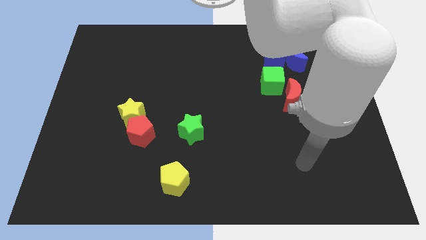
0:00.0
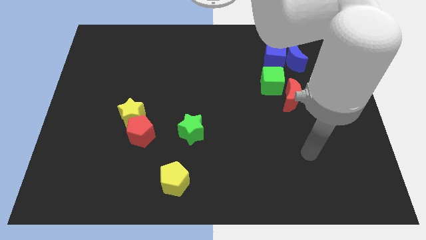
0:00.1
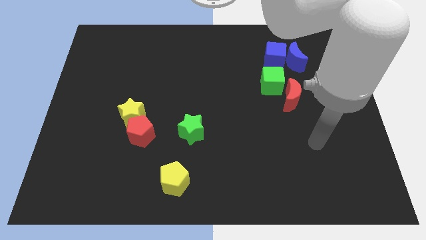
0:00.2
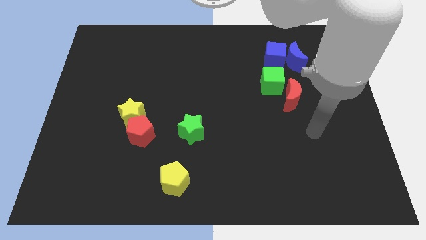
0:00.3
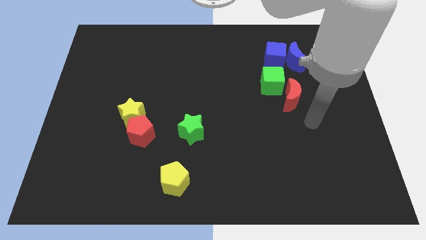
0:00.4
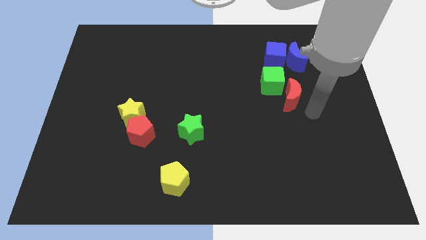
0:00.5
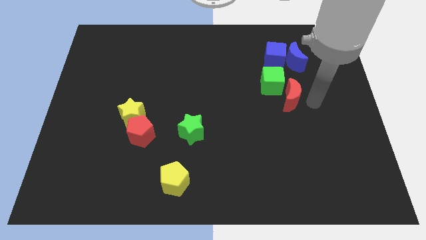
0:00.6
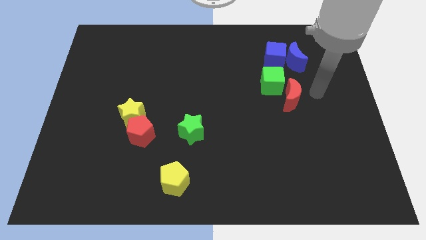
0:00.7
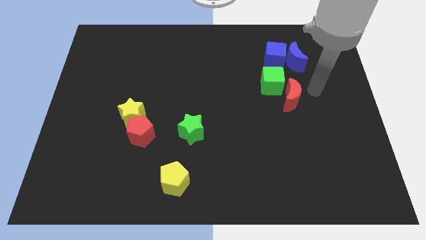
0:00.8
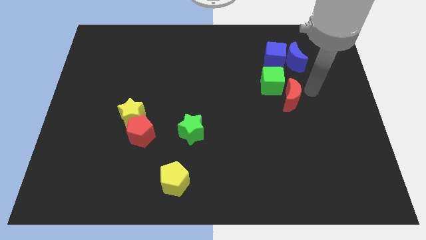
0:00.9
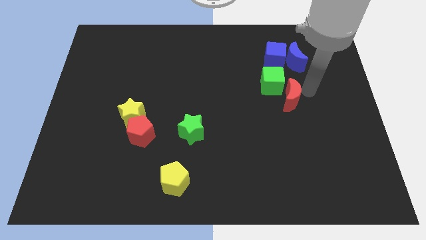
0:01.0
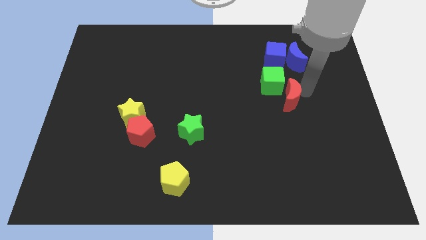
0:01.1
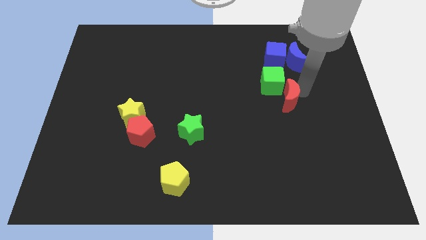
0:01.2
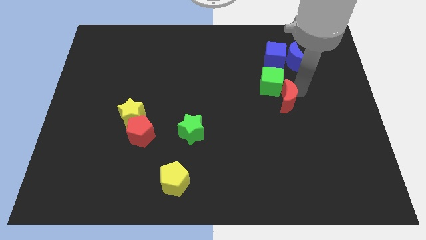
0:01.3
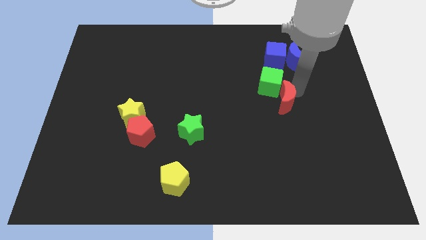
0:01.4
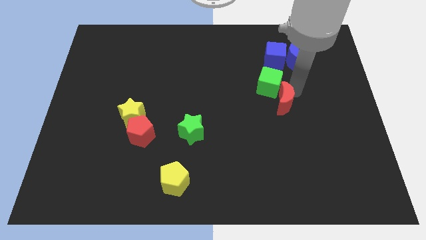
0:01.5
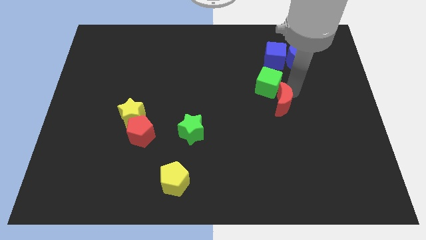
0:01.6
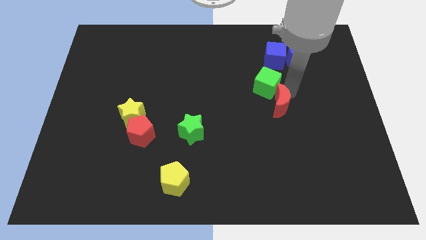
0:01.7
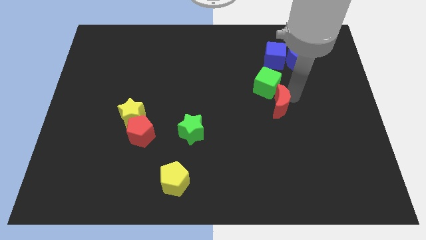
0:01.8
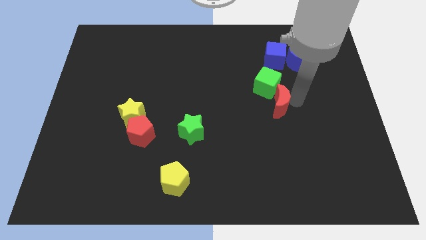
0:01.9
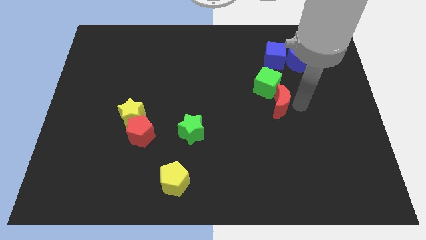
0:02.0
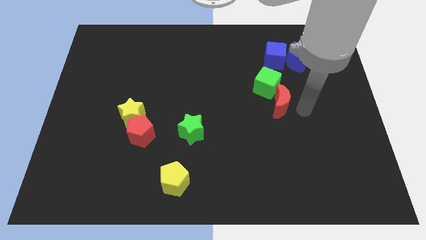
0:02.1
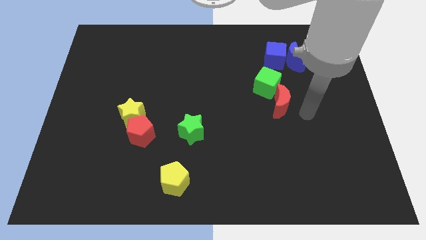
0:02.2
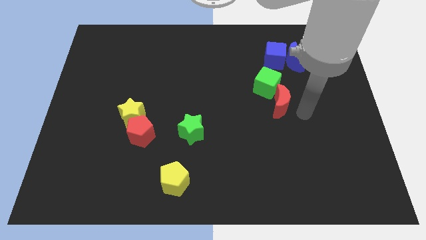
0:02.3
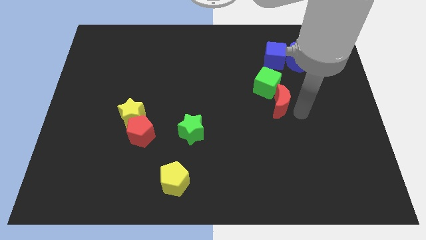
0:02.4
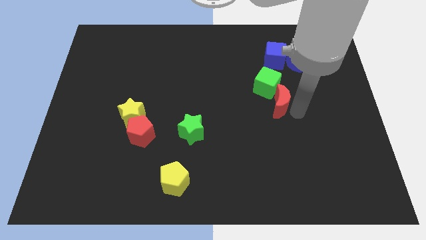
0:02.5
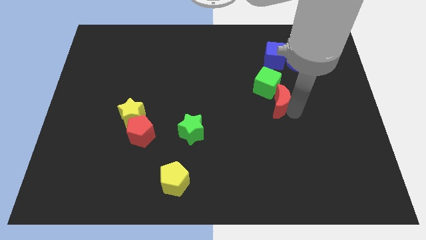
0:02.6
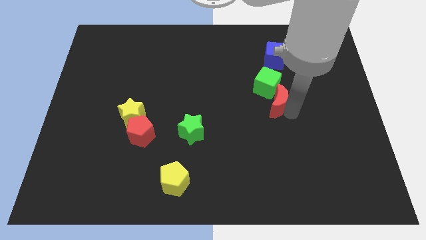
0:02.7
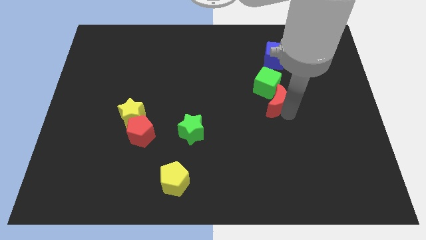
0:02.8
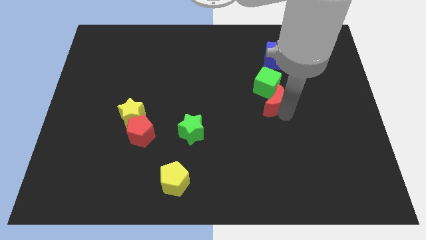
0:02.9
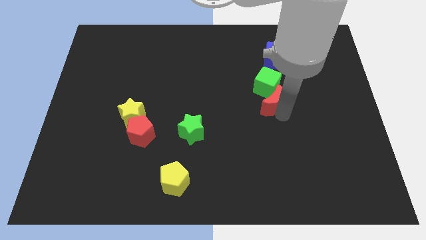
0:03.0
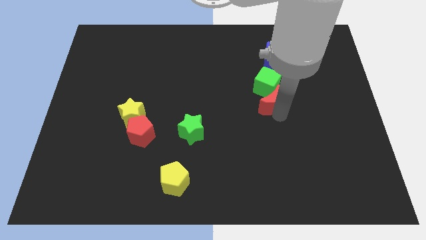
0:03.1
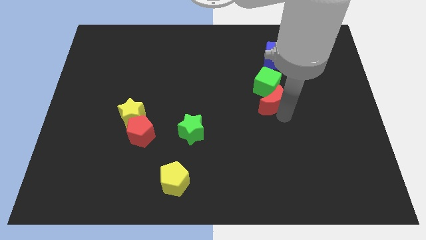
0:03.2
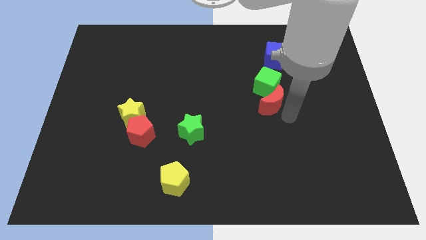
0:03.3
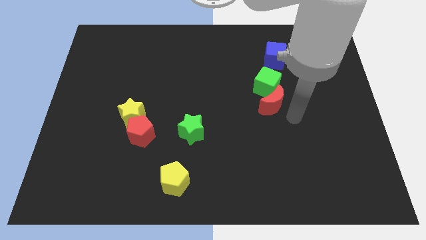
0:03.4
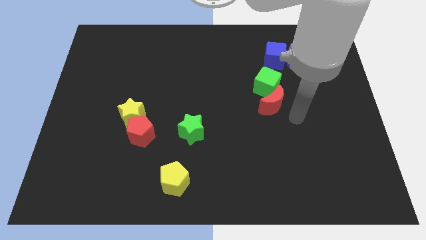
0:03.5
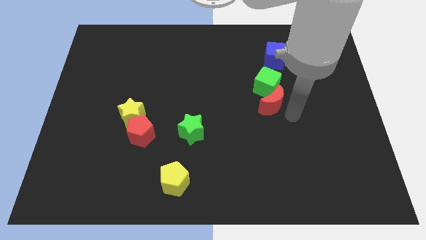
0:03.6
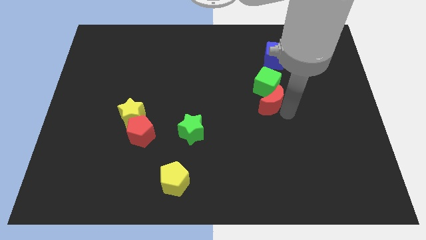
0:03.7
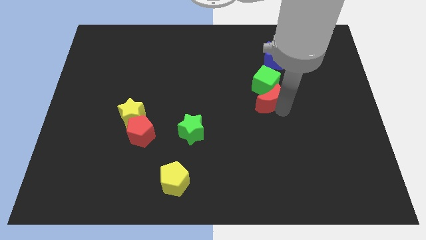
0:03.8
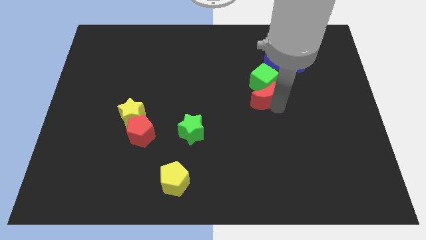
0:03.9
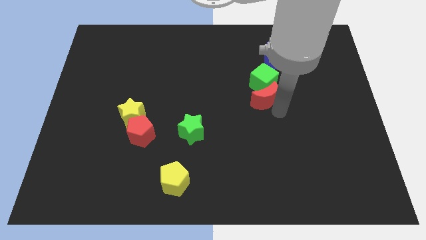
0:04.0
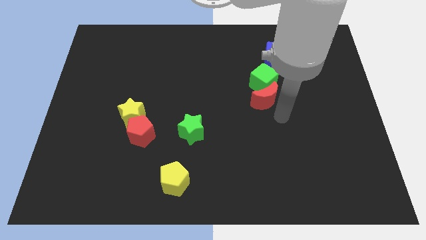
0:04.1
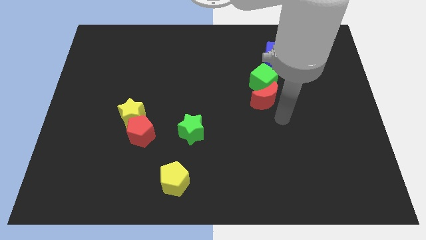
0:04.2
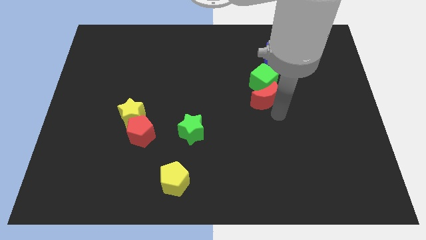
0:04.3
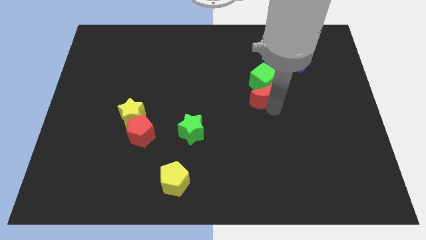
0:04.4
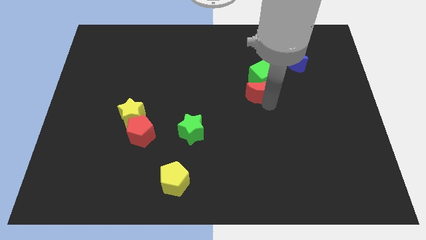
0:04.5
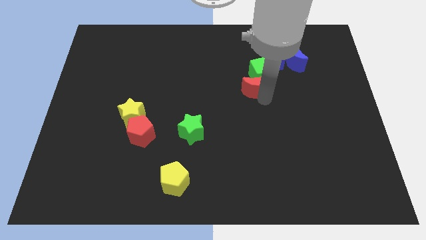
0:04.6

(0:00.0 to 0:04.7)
slightly slide the red moon up and left diagonally

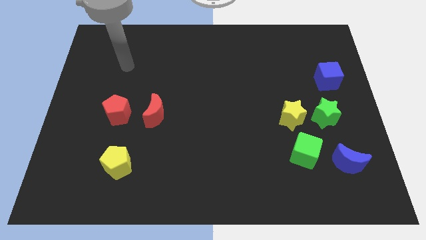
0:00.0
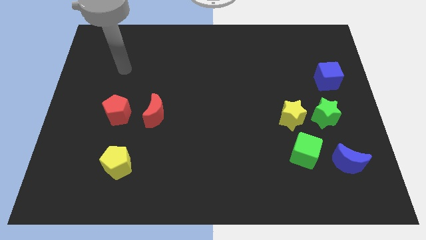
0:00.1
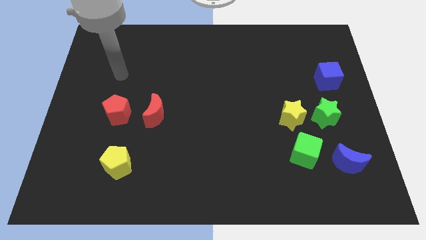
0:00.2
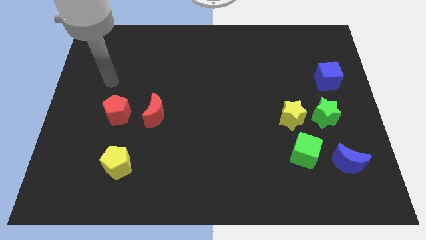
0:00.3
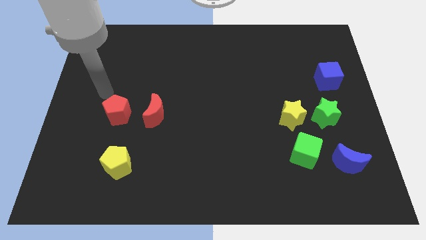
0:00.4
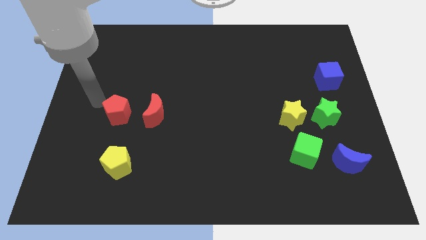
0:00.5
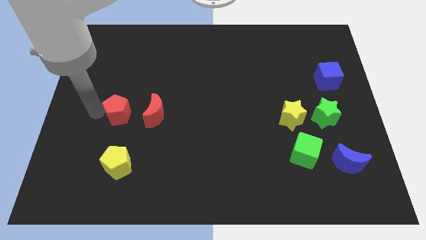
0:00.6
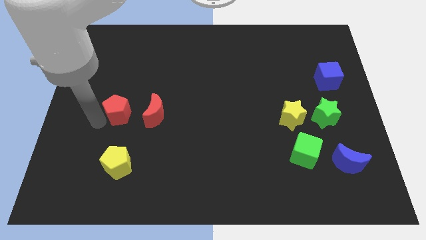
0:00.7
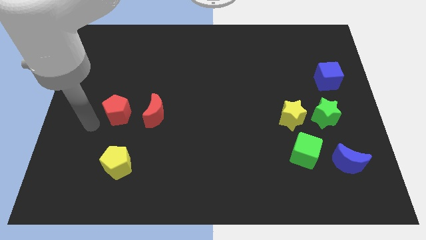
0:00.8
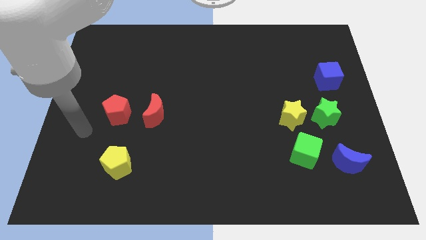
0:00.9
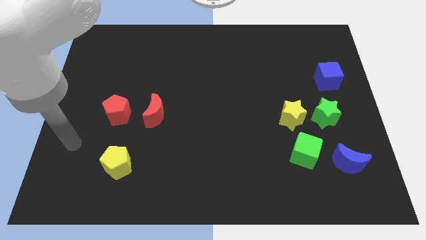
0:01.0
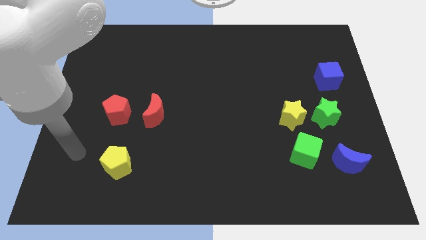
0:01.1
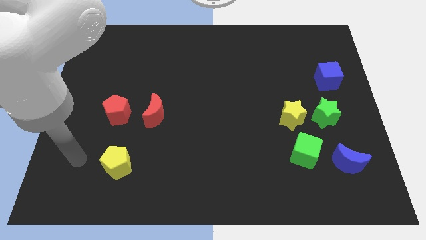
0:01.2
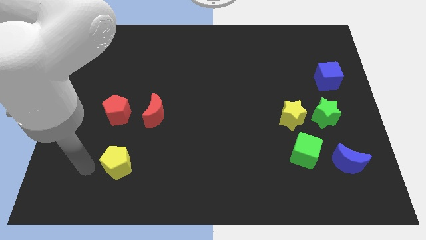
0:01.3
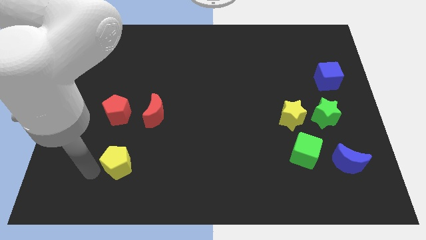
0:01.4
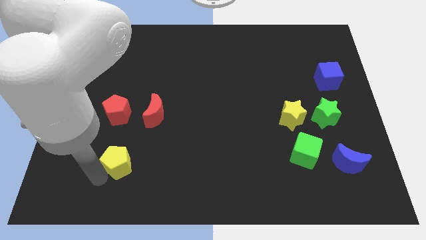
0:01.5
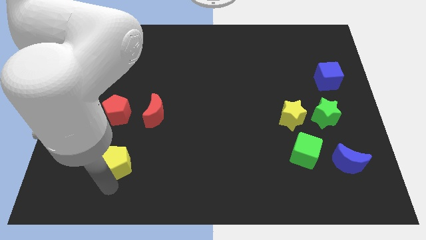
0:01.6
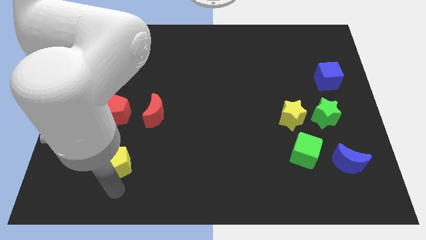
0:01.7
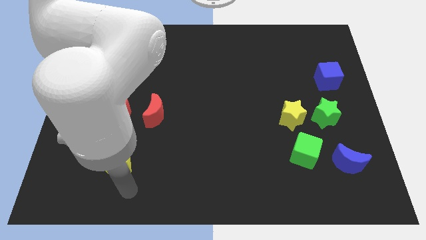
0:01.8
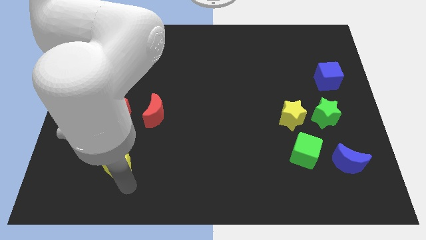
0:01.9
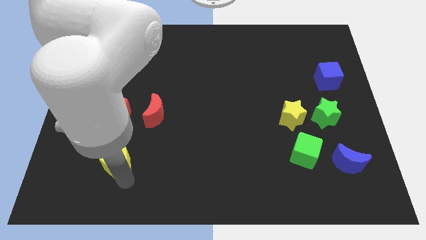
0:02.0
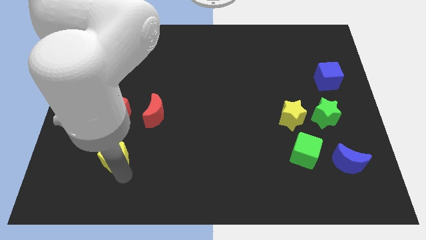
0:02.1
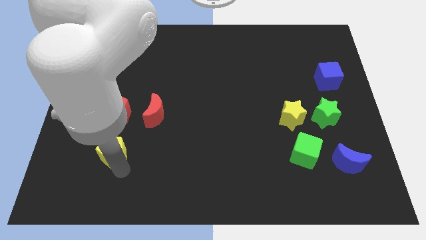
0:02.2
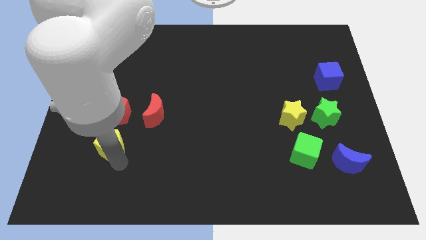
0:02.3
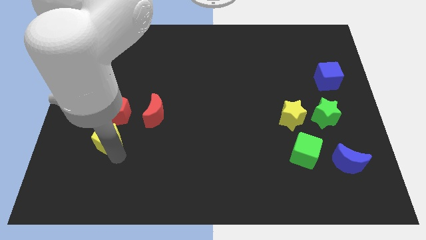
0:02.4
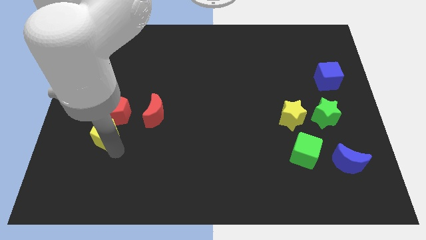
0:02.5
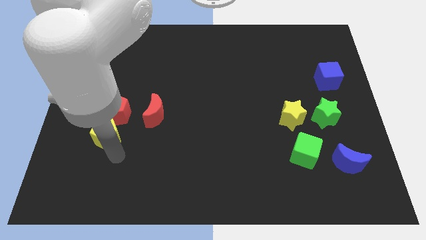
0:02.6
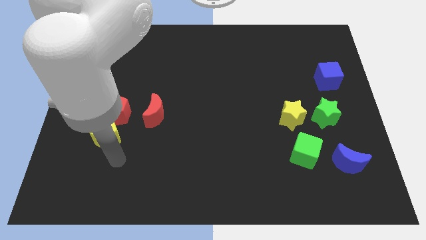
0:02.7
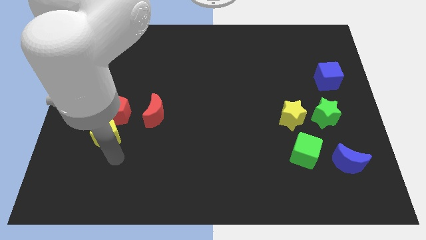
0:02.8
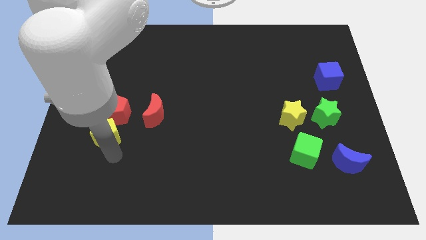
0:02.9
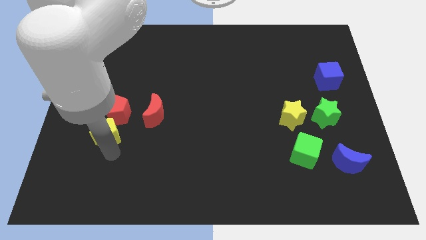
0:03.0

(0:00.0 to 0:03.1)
push the yellow pentagon up slightly

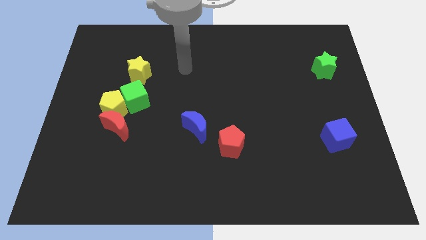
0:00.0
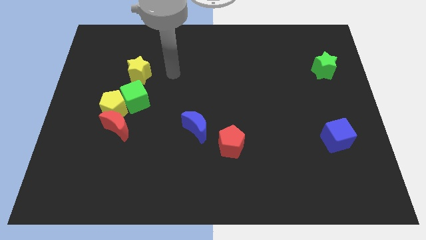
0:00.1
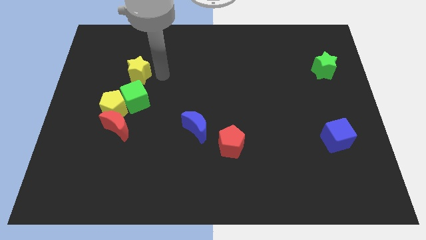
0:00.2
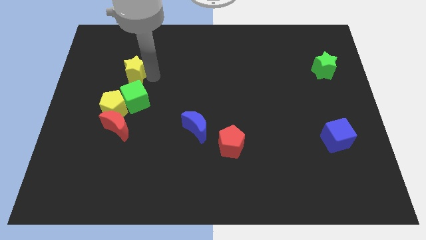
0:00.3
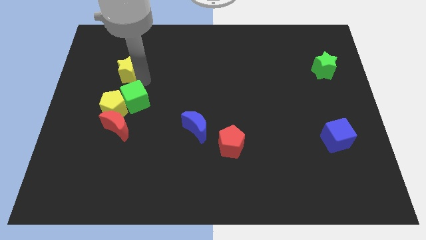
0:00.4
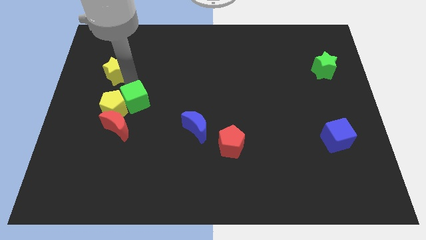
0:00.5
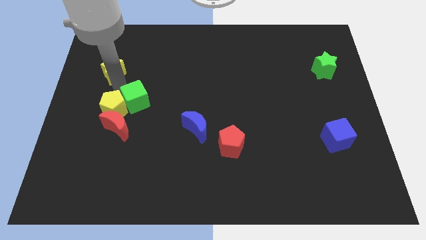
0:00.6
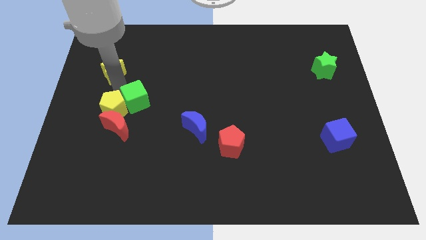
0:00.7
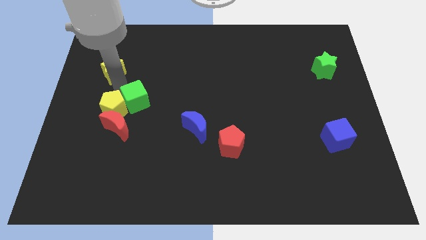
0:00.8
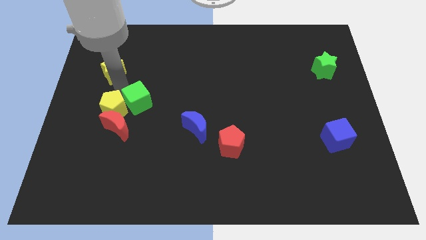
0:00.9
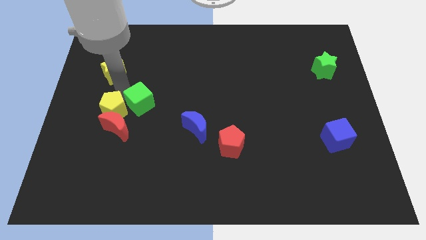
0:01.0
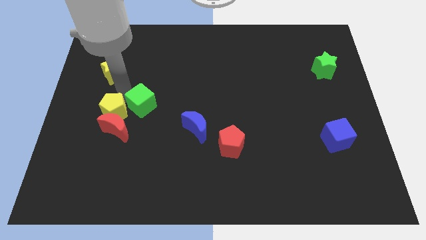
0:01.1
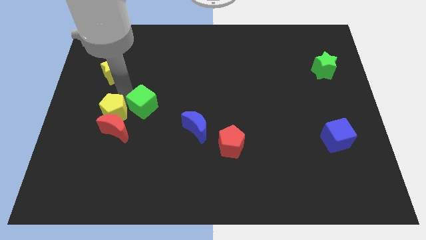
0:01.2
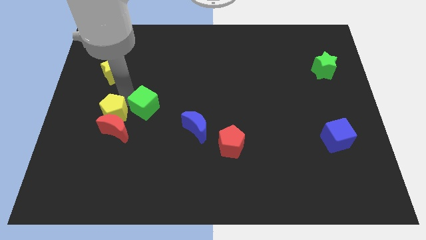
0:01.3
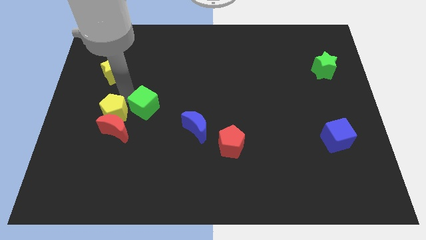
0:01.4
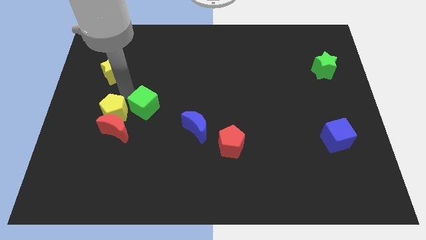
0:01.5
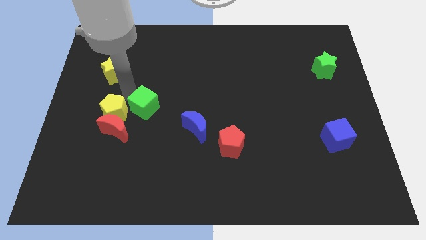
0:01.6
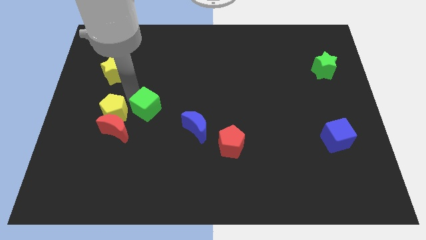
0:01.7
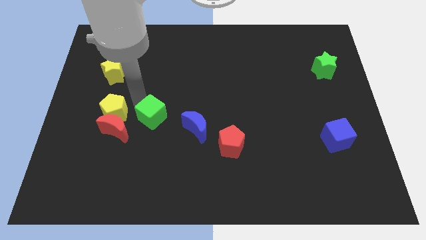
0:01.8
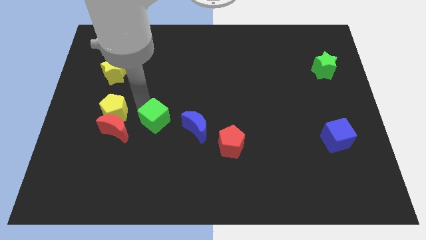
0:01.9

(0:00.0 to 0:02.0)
push the green cube somewhat diagonally downwards and to the right
